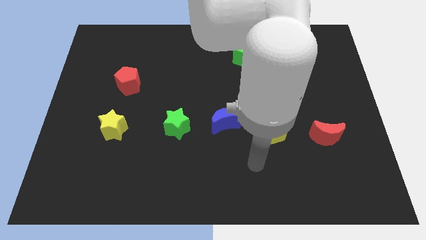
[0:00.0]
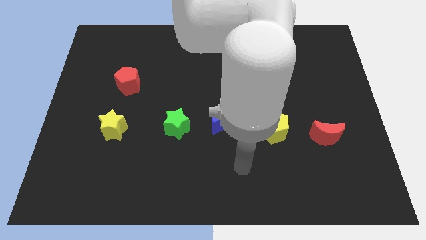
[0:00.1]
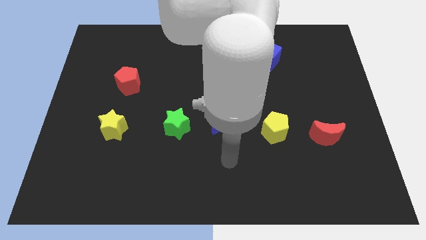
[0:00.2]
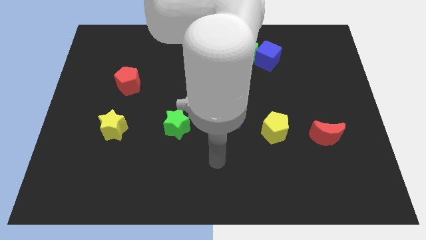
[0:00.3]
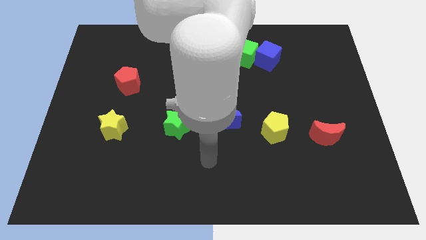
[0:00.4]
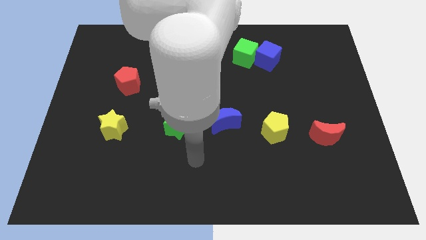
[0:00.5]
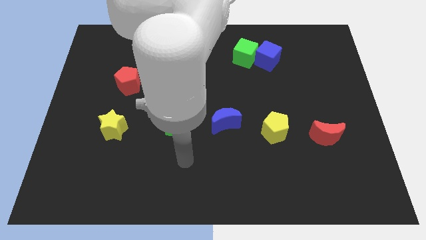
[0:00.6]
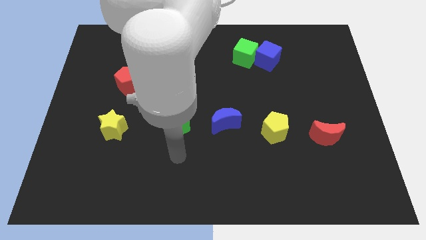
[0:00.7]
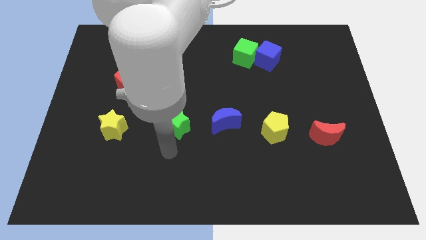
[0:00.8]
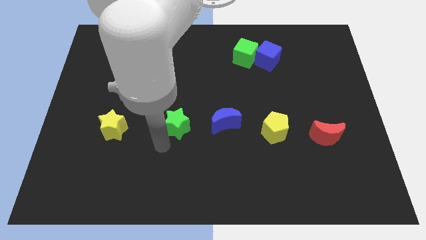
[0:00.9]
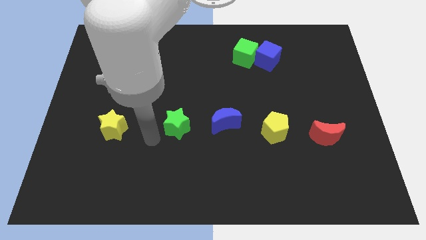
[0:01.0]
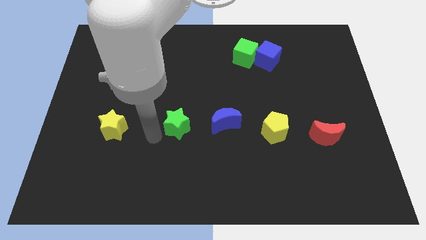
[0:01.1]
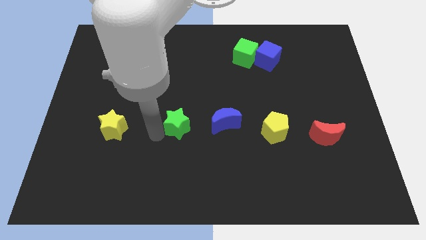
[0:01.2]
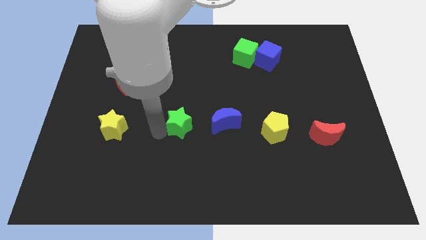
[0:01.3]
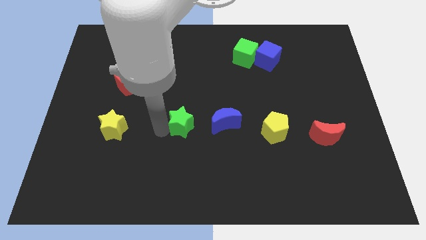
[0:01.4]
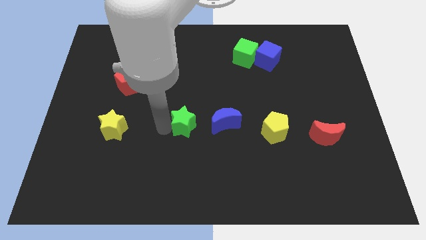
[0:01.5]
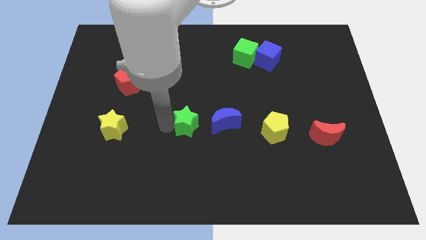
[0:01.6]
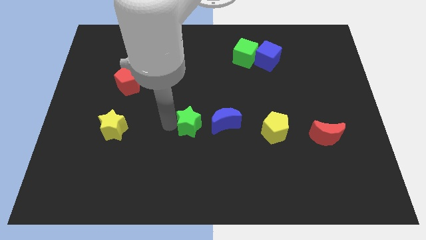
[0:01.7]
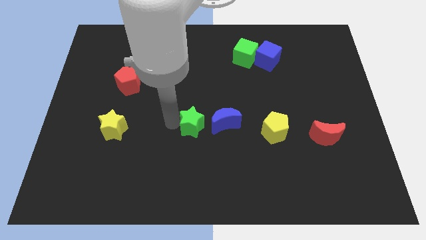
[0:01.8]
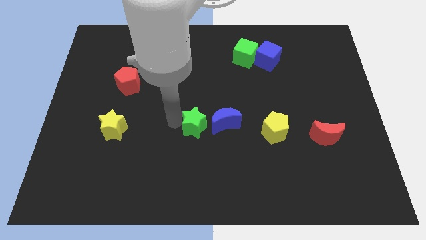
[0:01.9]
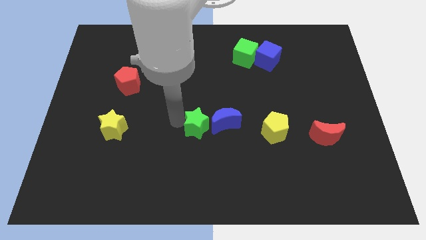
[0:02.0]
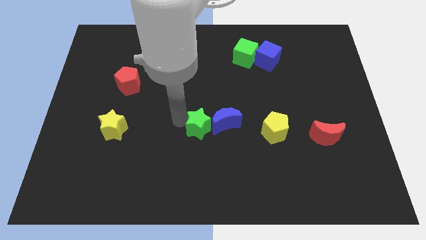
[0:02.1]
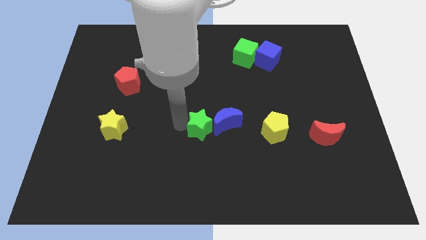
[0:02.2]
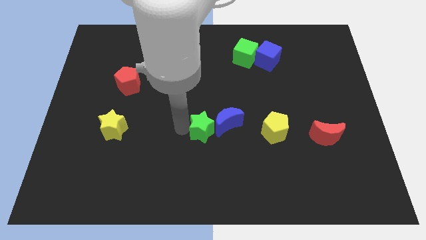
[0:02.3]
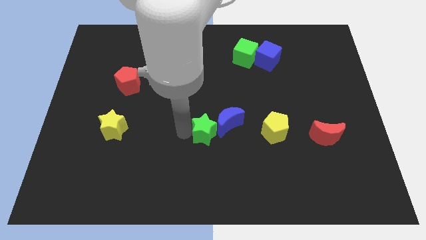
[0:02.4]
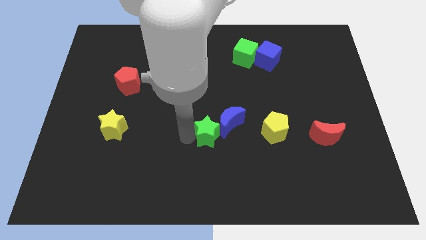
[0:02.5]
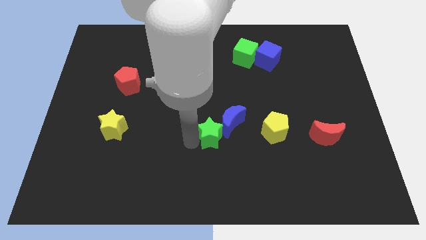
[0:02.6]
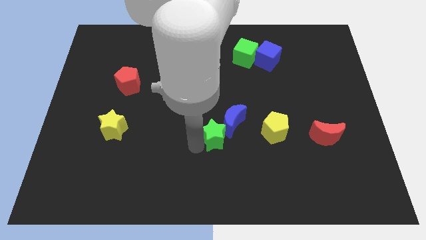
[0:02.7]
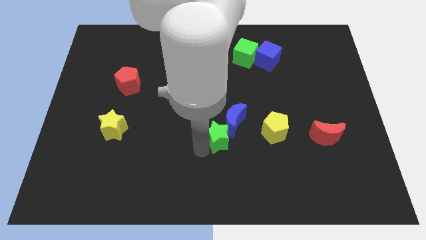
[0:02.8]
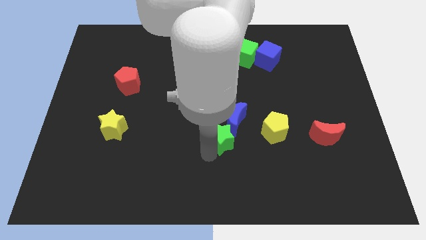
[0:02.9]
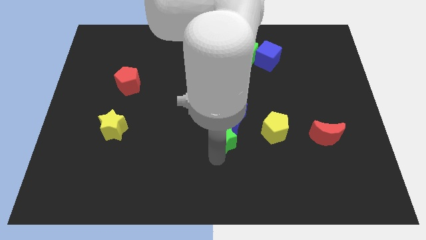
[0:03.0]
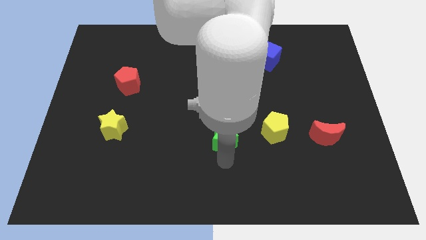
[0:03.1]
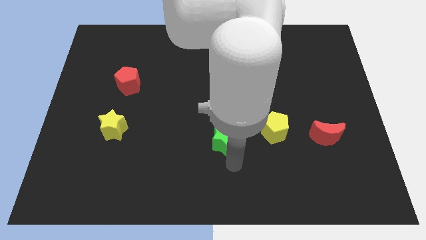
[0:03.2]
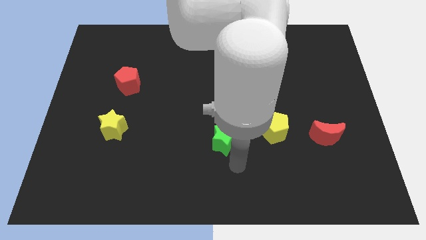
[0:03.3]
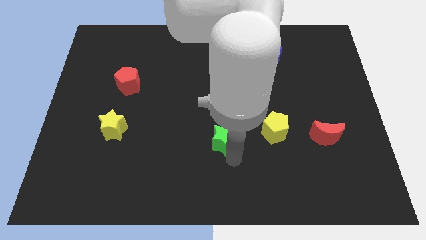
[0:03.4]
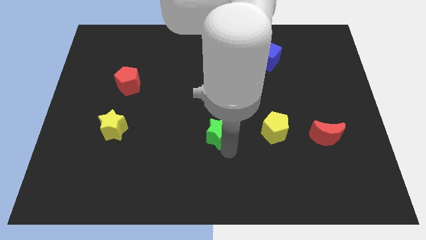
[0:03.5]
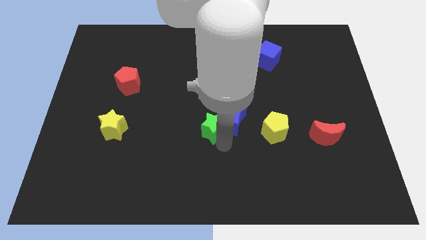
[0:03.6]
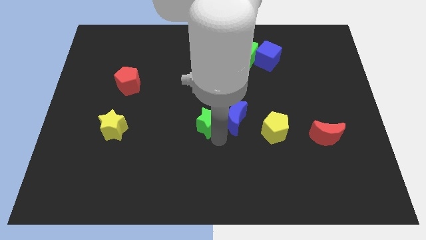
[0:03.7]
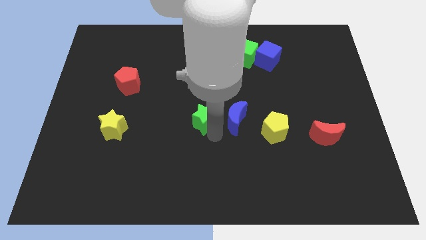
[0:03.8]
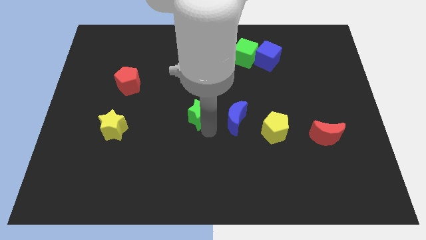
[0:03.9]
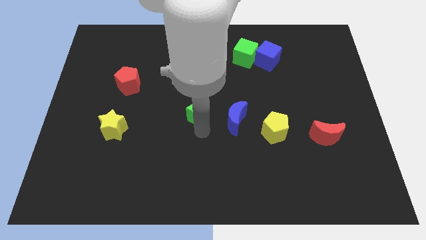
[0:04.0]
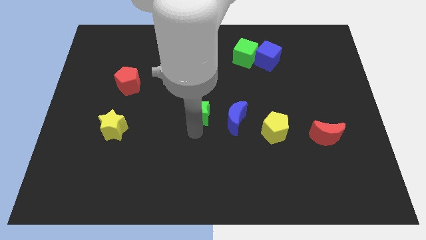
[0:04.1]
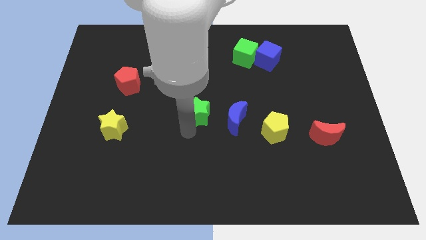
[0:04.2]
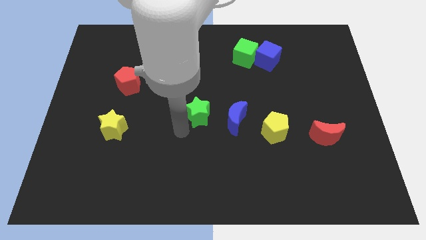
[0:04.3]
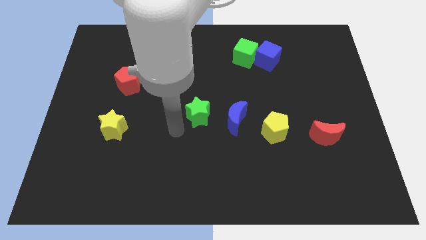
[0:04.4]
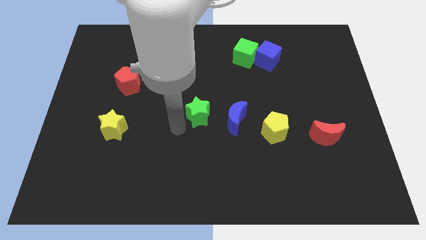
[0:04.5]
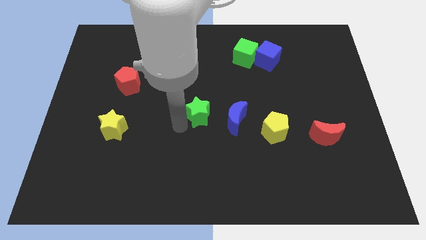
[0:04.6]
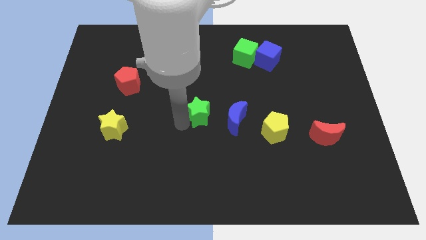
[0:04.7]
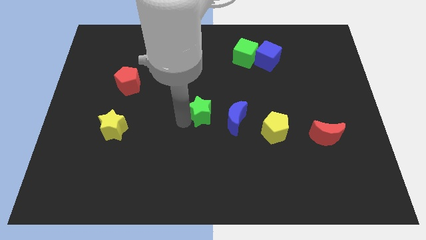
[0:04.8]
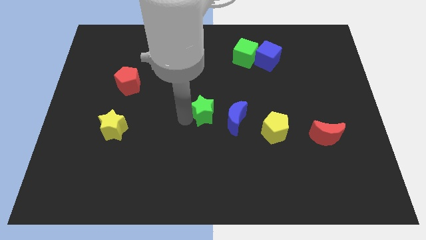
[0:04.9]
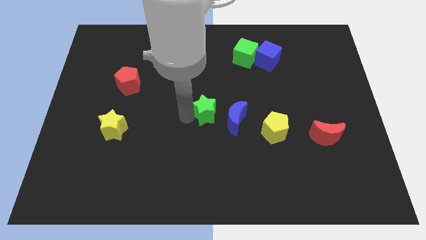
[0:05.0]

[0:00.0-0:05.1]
push the green star up and right a little

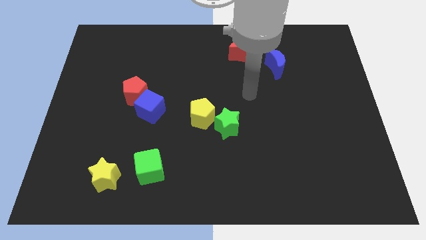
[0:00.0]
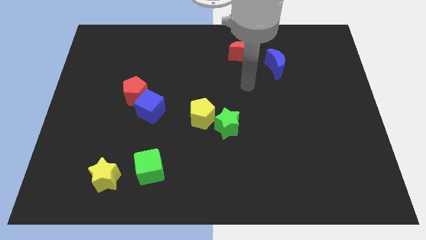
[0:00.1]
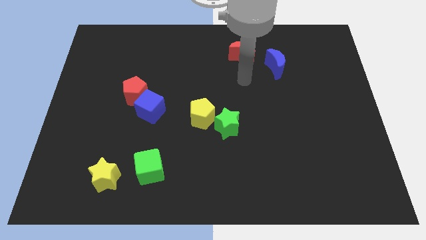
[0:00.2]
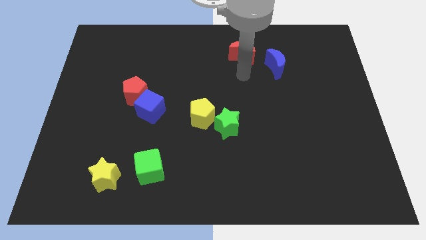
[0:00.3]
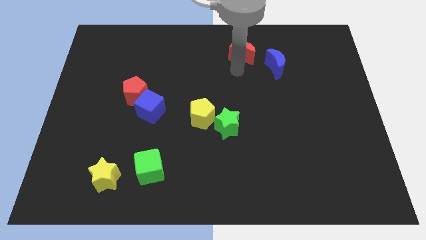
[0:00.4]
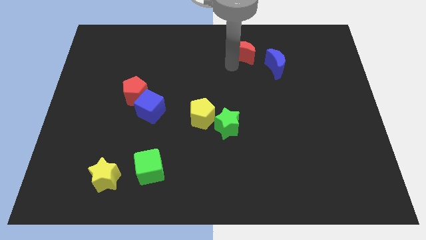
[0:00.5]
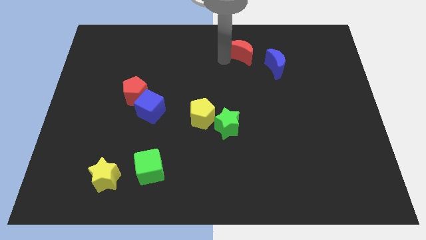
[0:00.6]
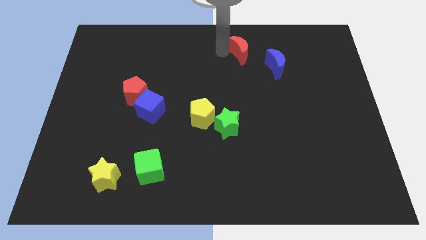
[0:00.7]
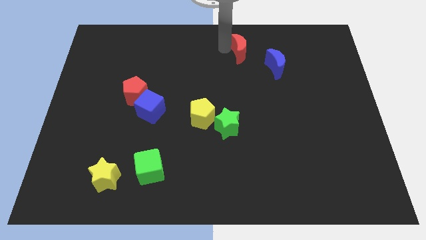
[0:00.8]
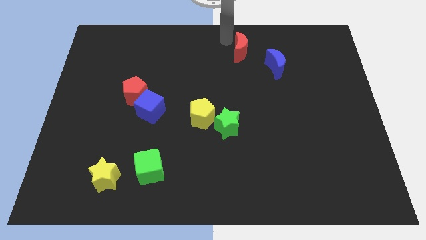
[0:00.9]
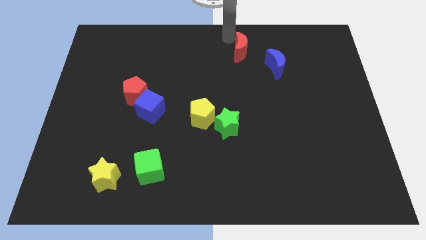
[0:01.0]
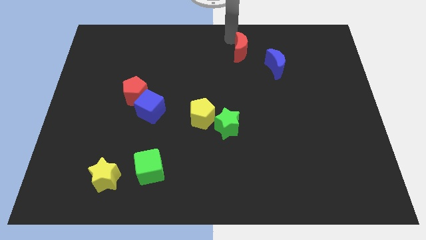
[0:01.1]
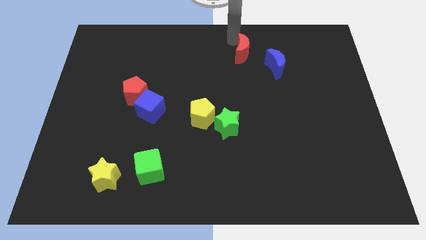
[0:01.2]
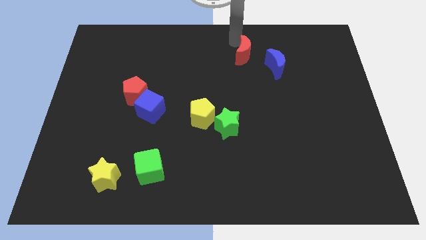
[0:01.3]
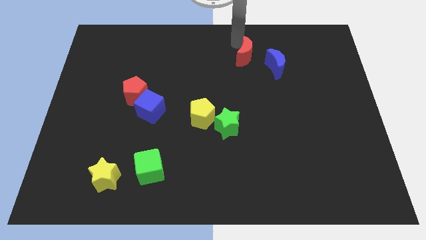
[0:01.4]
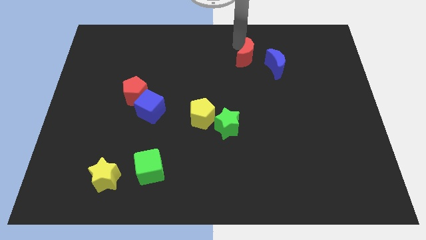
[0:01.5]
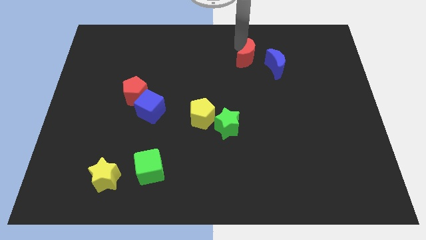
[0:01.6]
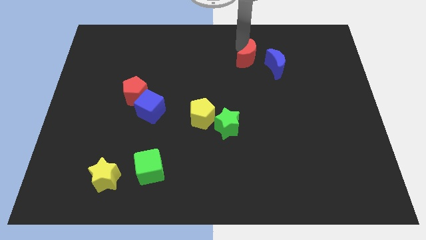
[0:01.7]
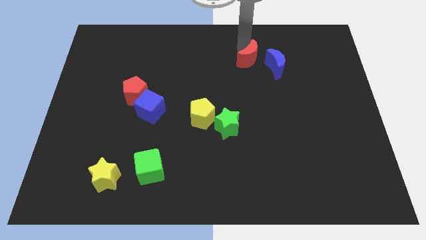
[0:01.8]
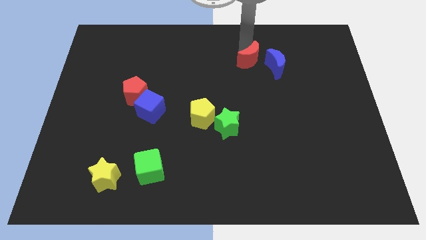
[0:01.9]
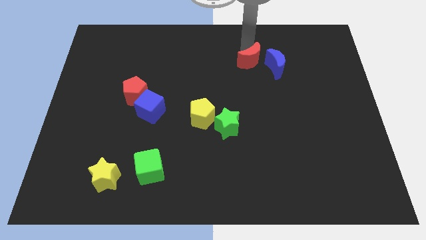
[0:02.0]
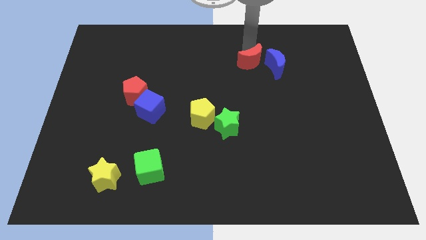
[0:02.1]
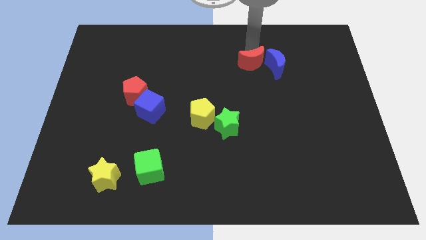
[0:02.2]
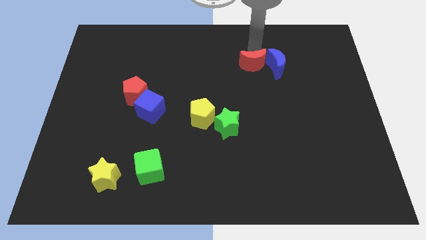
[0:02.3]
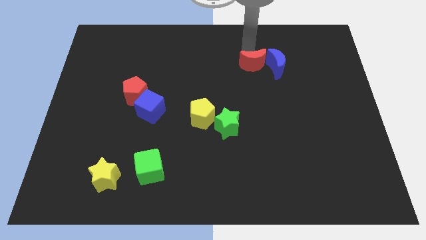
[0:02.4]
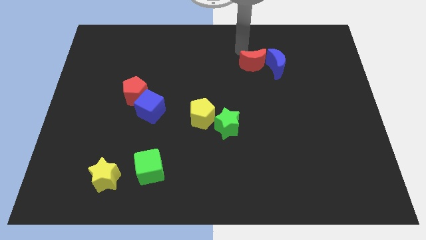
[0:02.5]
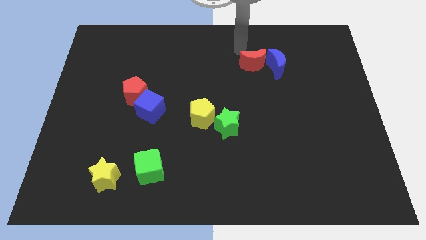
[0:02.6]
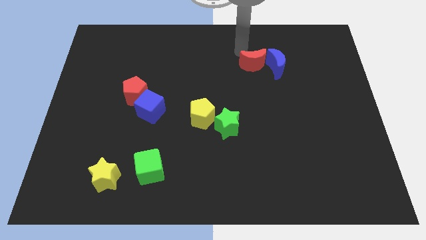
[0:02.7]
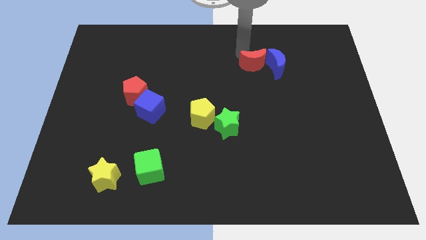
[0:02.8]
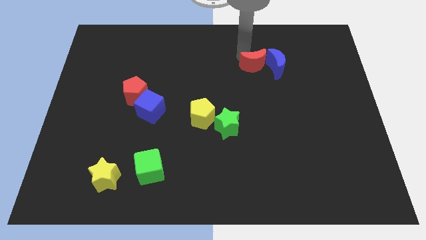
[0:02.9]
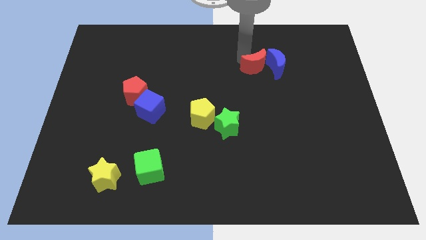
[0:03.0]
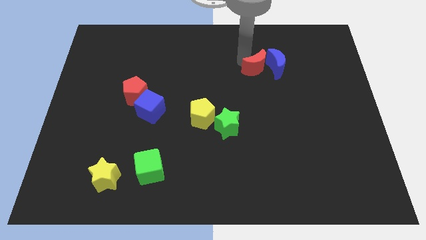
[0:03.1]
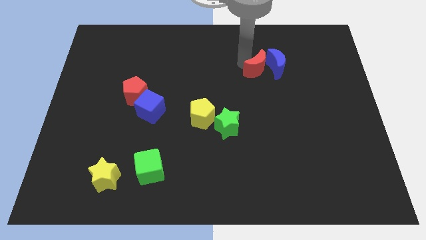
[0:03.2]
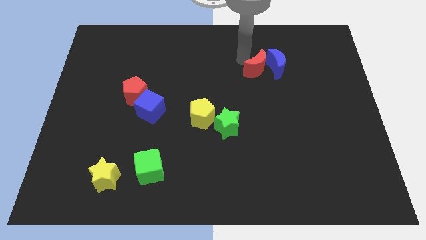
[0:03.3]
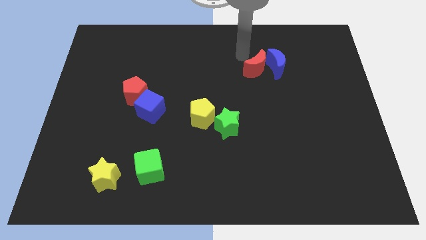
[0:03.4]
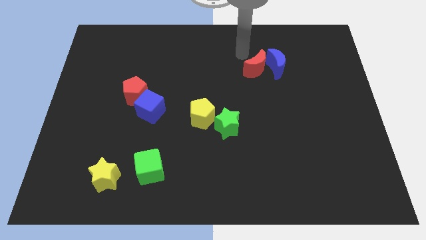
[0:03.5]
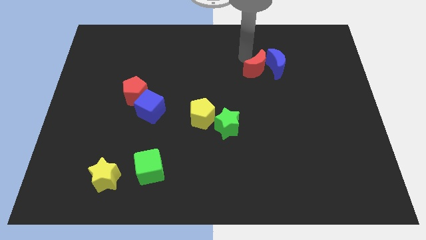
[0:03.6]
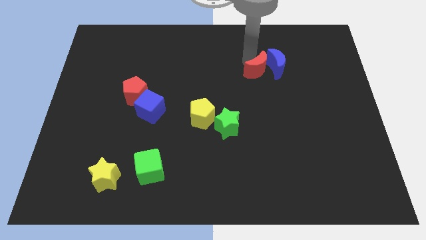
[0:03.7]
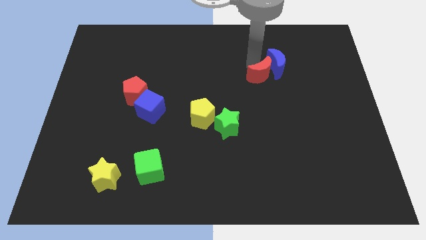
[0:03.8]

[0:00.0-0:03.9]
push the red moon down and right somewhat
